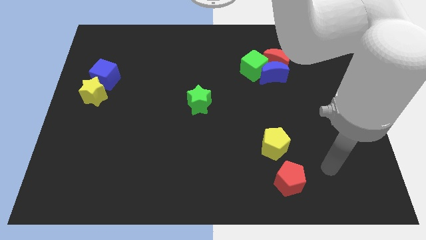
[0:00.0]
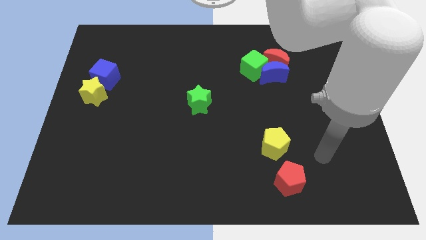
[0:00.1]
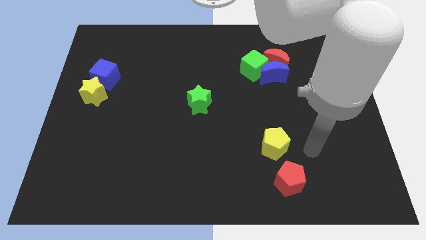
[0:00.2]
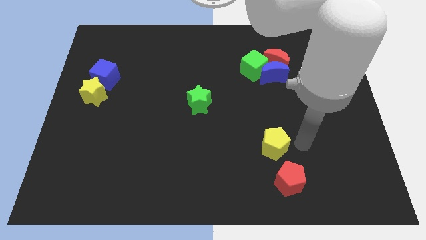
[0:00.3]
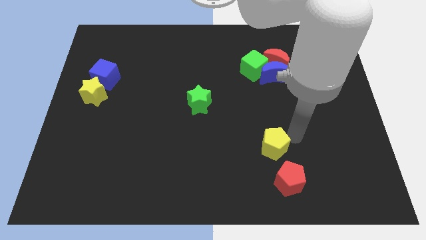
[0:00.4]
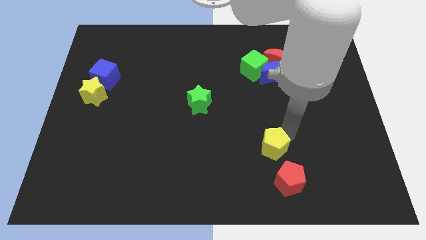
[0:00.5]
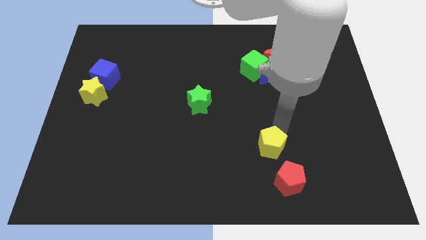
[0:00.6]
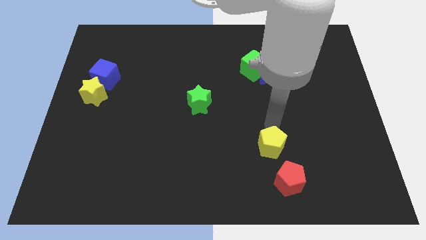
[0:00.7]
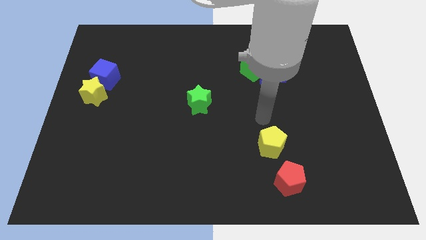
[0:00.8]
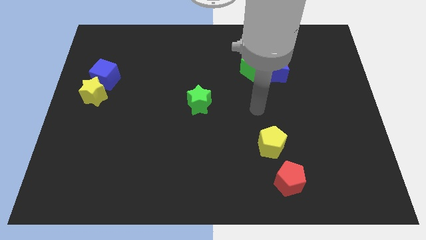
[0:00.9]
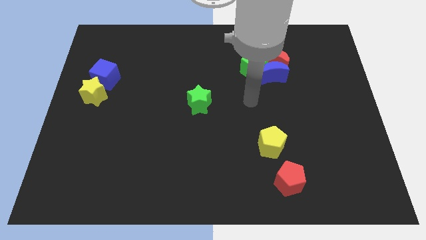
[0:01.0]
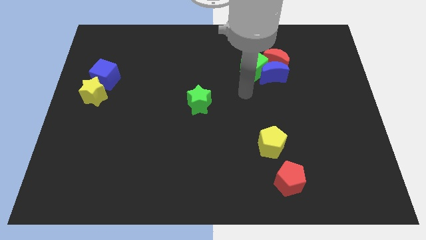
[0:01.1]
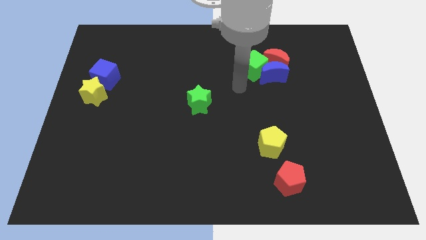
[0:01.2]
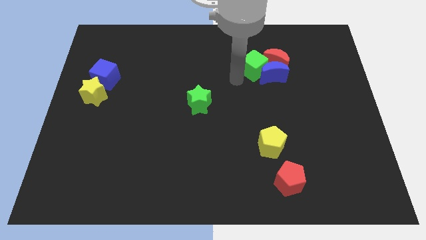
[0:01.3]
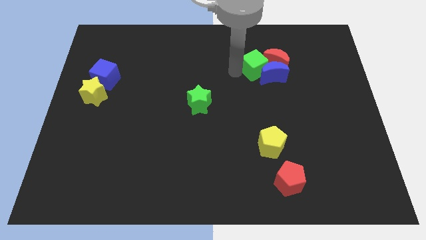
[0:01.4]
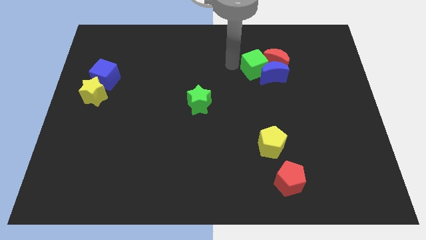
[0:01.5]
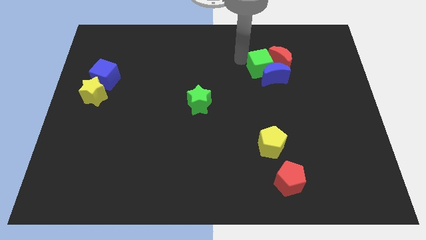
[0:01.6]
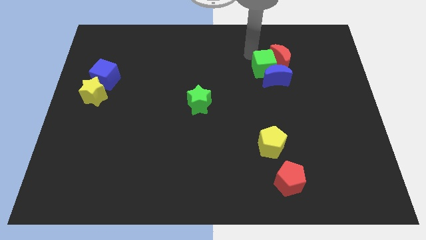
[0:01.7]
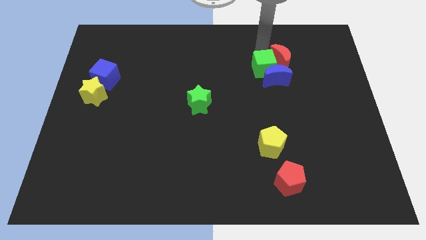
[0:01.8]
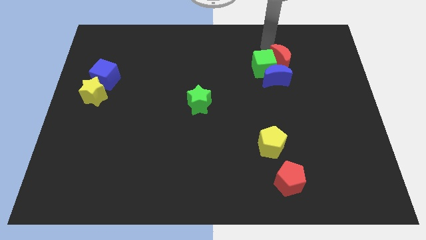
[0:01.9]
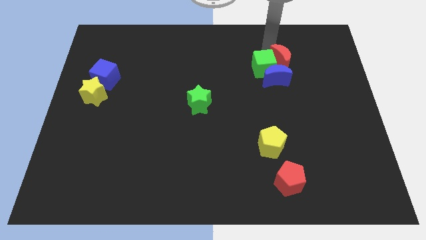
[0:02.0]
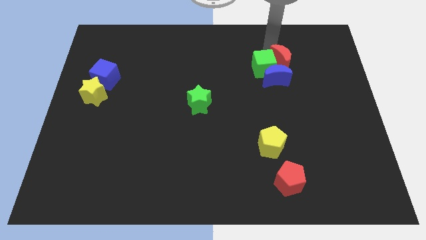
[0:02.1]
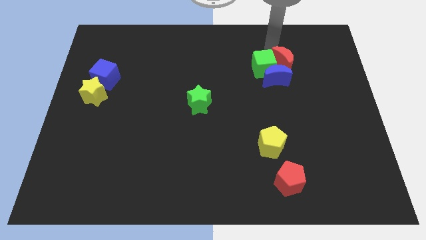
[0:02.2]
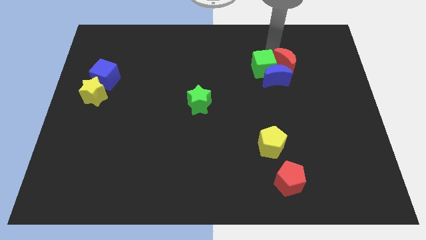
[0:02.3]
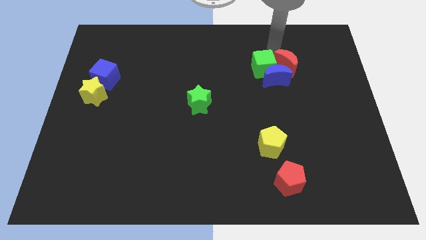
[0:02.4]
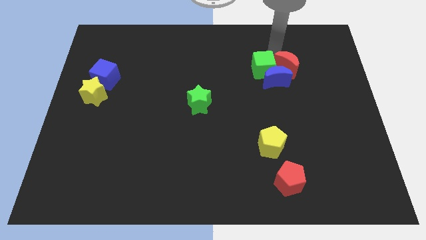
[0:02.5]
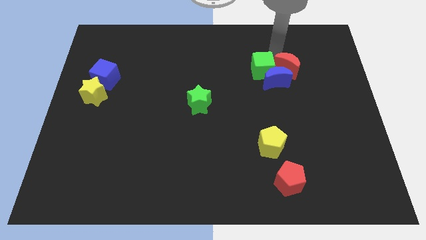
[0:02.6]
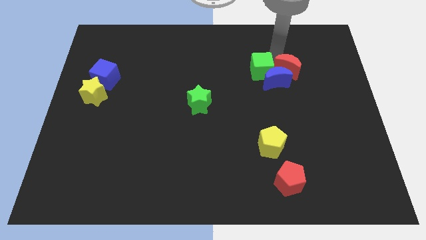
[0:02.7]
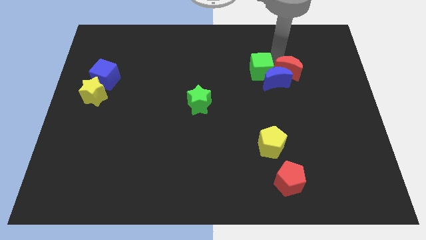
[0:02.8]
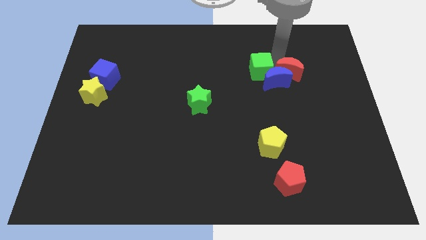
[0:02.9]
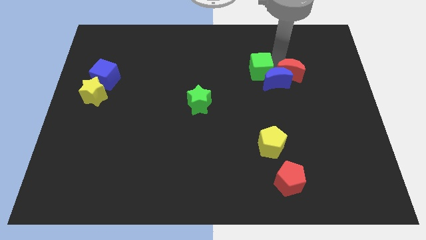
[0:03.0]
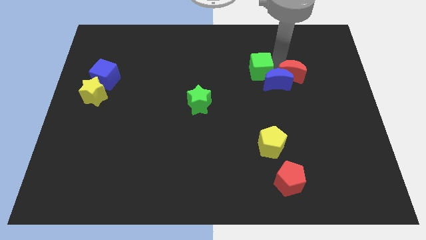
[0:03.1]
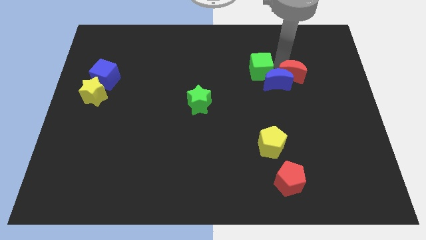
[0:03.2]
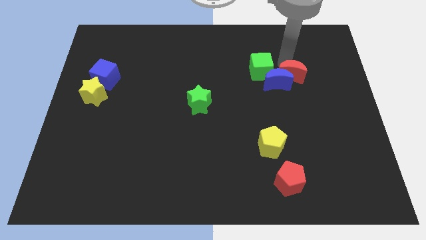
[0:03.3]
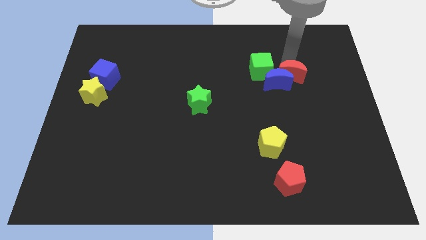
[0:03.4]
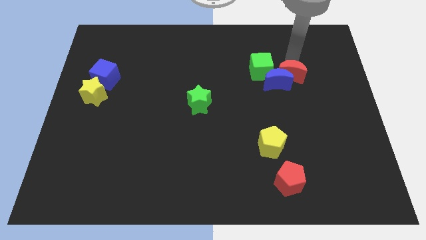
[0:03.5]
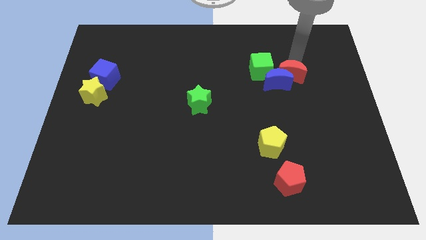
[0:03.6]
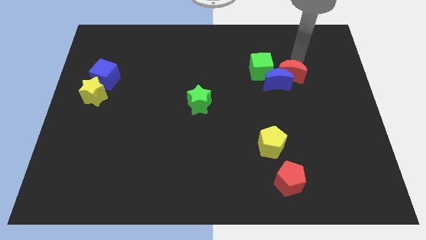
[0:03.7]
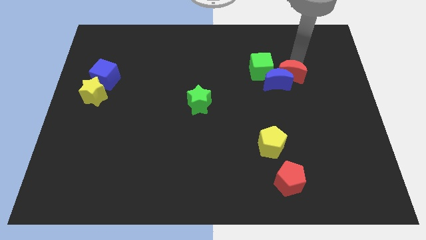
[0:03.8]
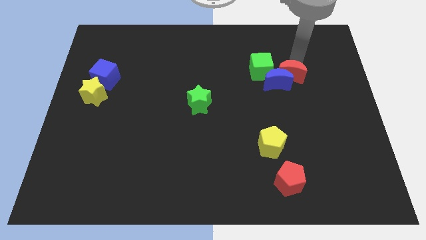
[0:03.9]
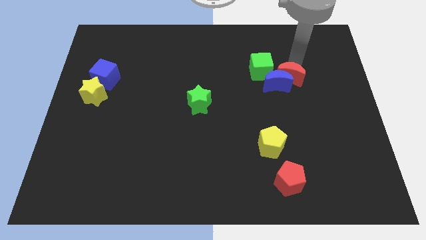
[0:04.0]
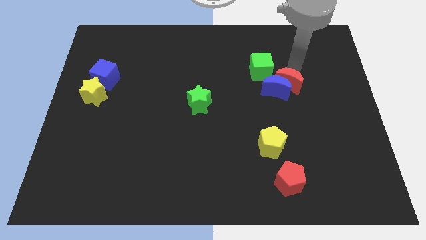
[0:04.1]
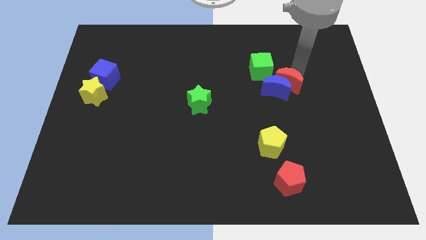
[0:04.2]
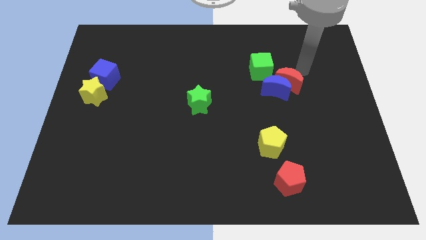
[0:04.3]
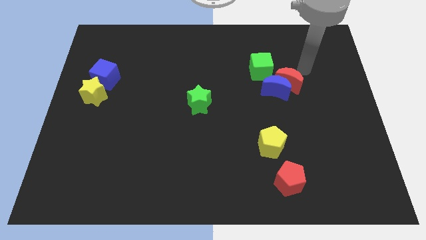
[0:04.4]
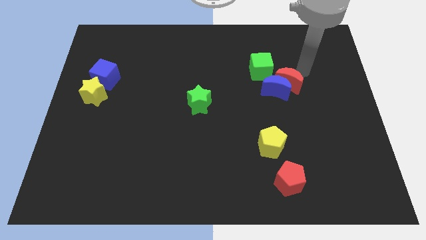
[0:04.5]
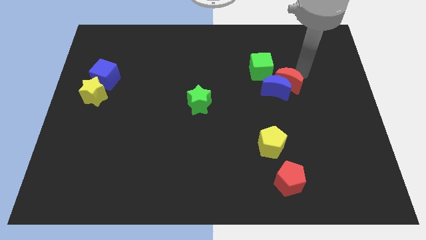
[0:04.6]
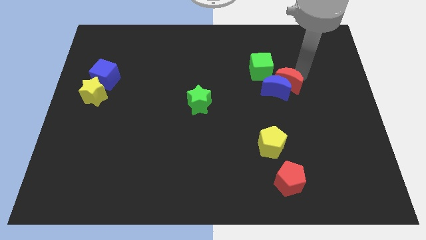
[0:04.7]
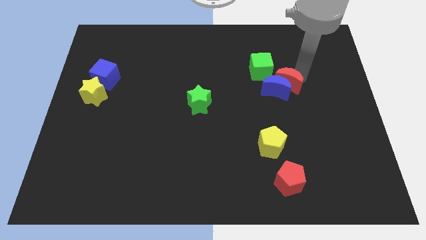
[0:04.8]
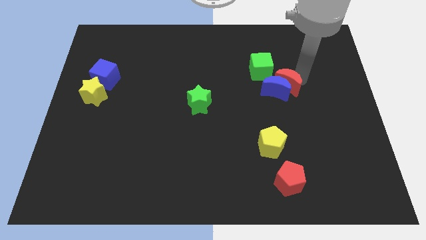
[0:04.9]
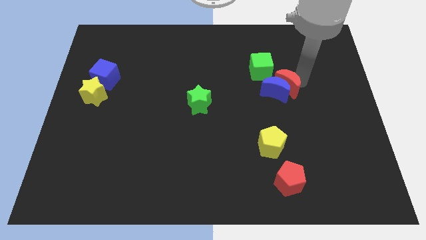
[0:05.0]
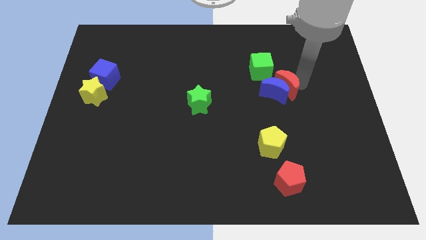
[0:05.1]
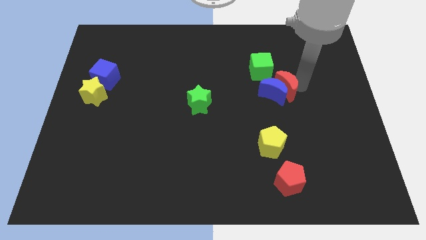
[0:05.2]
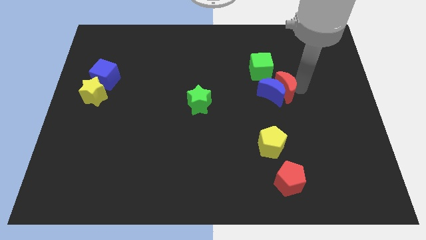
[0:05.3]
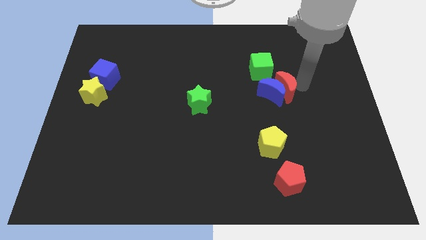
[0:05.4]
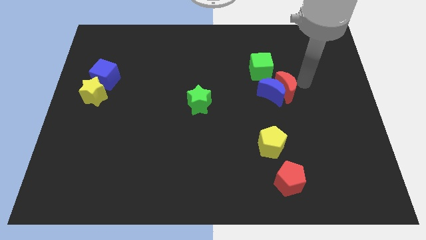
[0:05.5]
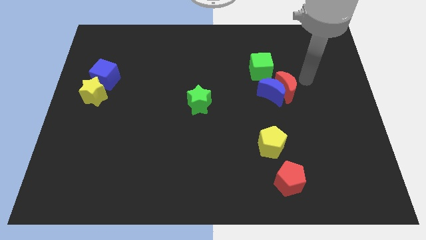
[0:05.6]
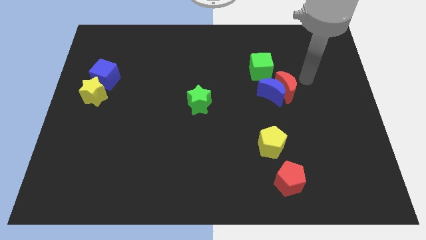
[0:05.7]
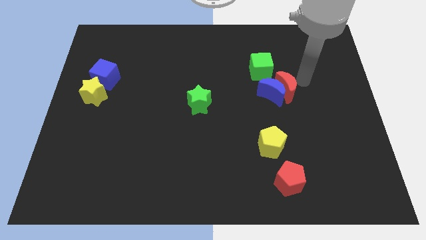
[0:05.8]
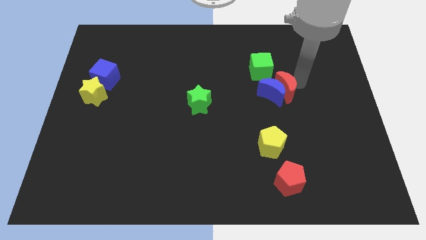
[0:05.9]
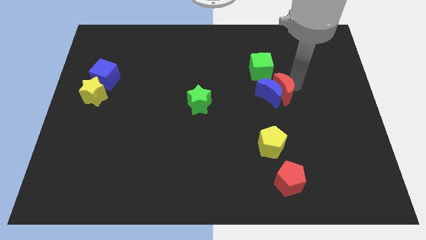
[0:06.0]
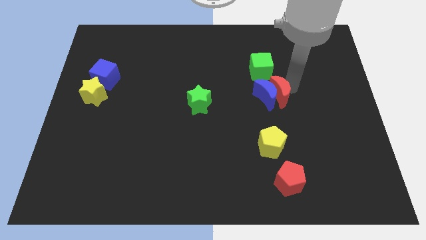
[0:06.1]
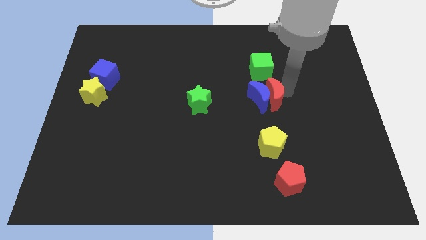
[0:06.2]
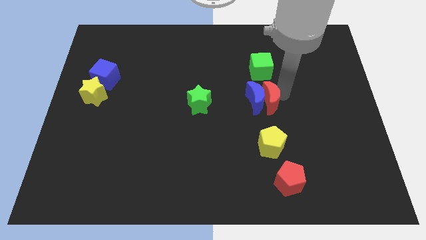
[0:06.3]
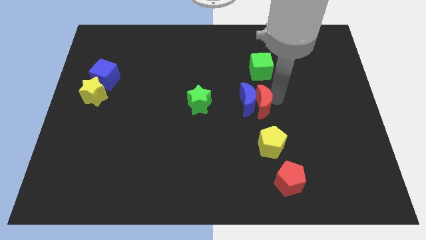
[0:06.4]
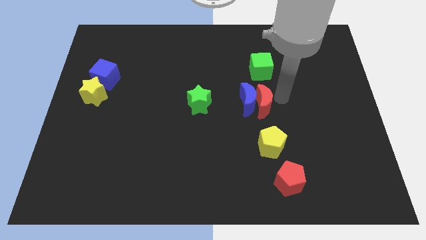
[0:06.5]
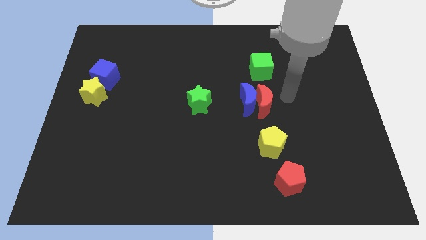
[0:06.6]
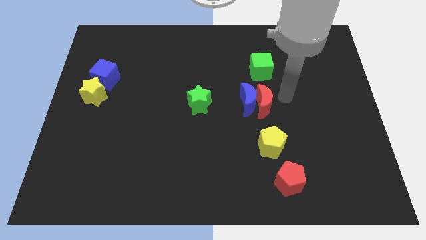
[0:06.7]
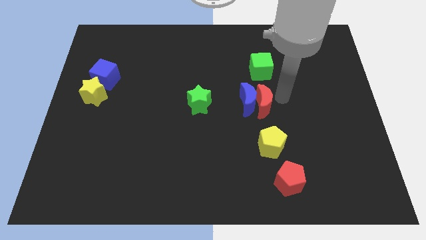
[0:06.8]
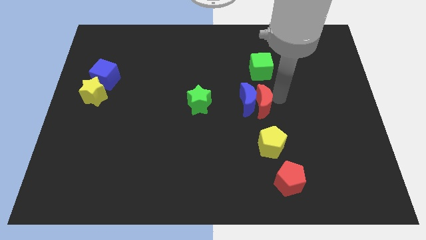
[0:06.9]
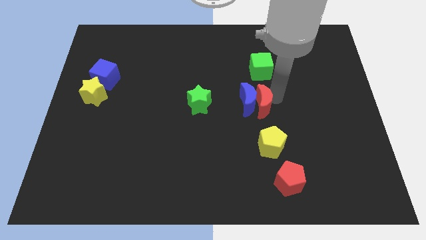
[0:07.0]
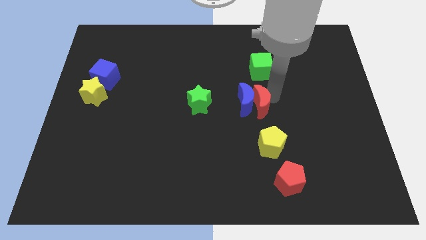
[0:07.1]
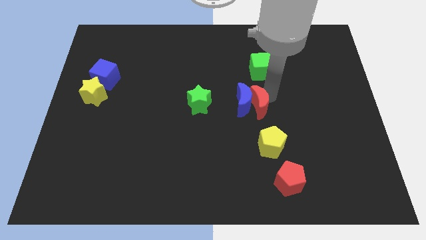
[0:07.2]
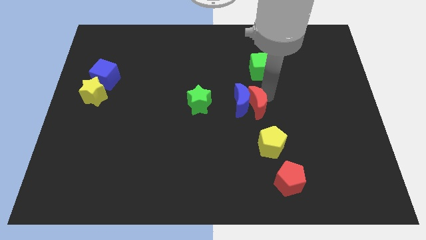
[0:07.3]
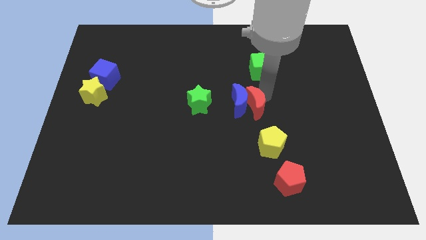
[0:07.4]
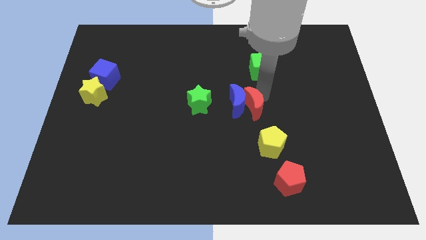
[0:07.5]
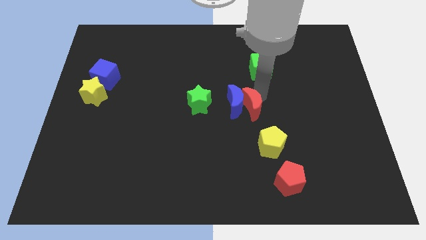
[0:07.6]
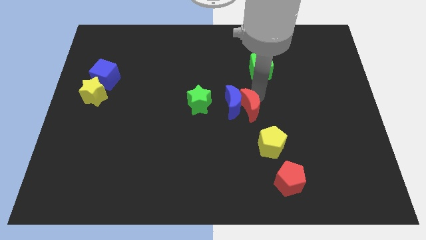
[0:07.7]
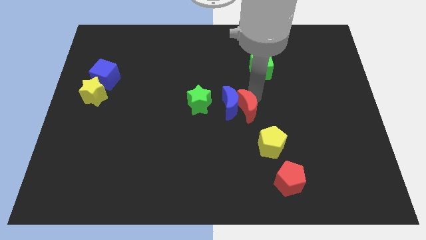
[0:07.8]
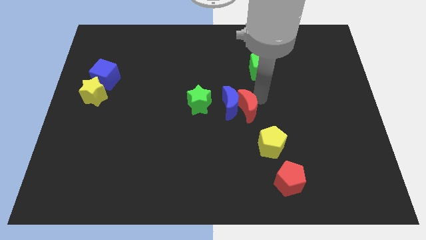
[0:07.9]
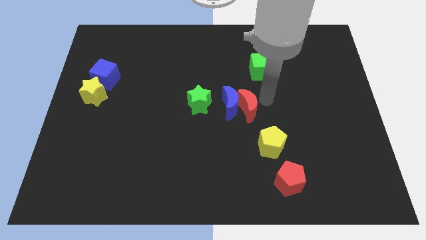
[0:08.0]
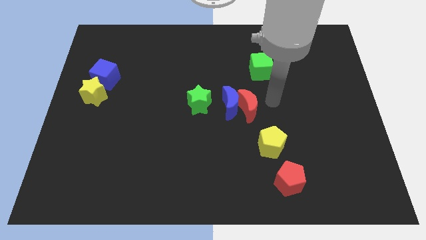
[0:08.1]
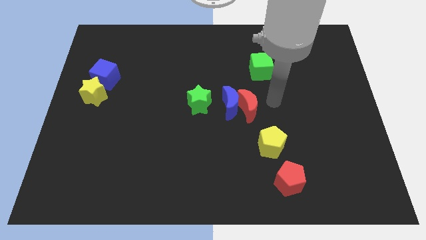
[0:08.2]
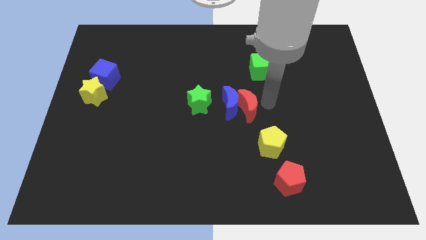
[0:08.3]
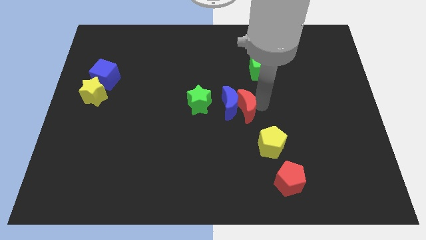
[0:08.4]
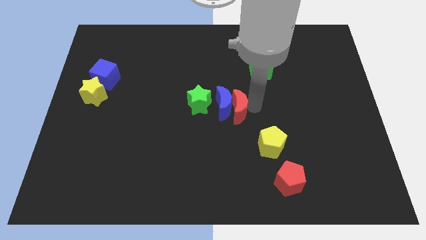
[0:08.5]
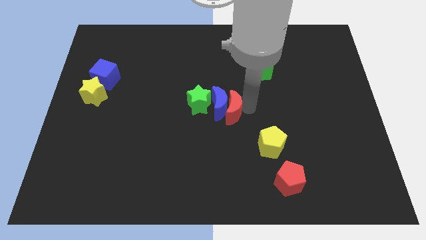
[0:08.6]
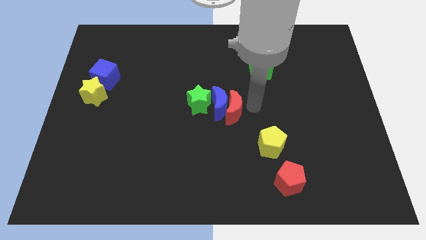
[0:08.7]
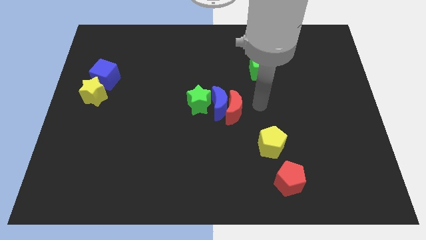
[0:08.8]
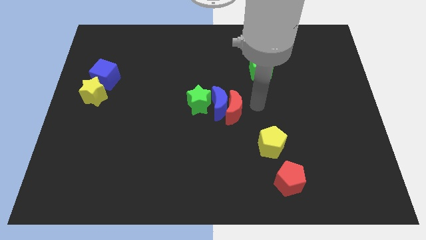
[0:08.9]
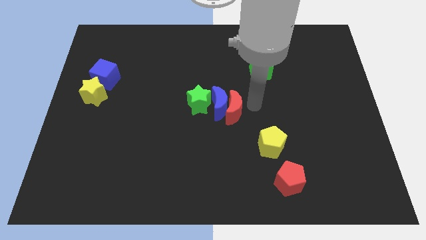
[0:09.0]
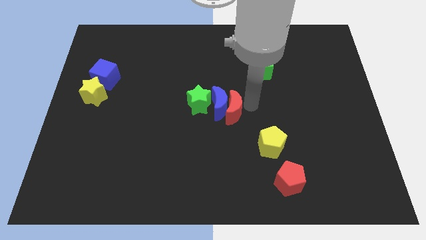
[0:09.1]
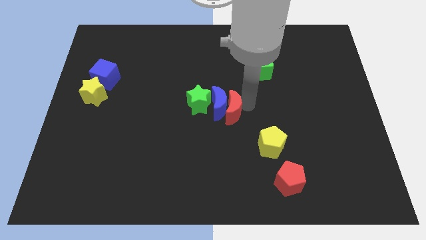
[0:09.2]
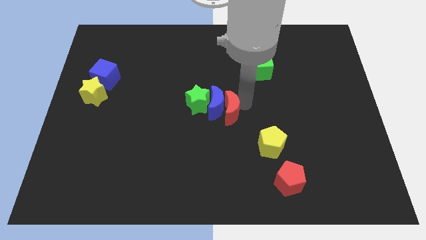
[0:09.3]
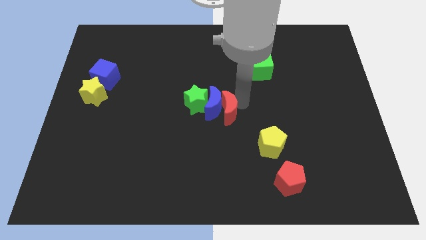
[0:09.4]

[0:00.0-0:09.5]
move the red moon downwards and left
